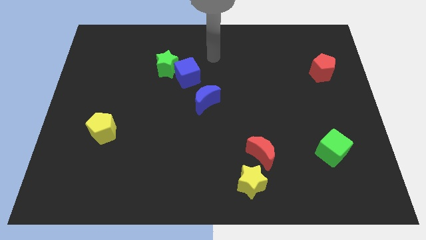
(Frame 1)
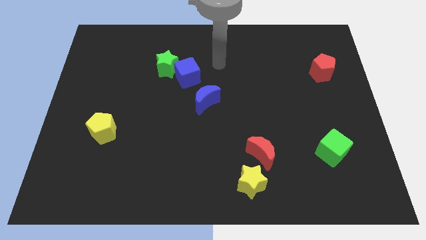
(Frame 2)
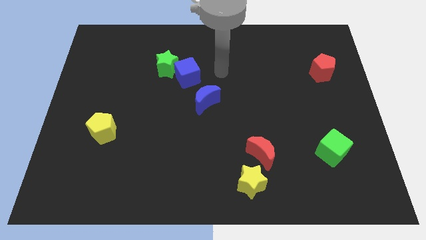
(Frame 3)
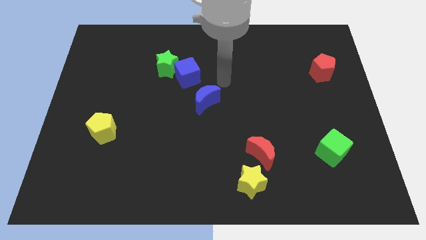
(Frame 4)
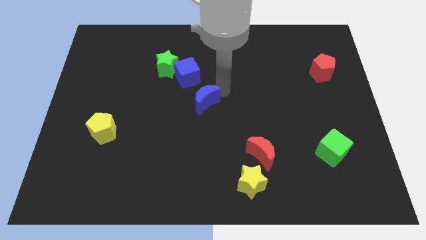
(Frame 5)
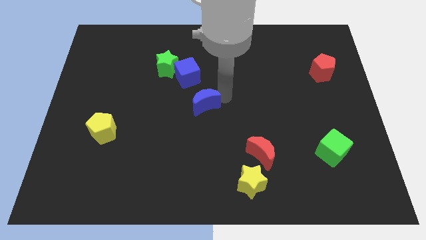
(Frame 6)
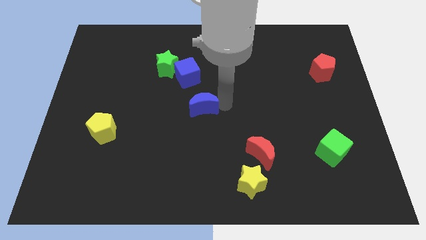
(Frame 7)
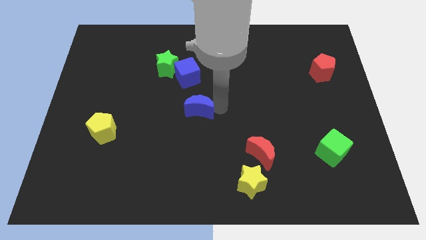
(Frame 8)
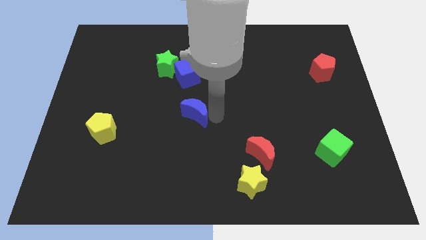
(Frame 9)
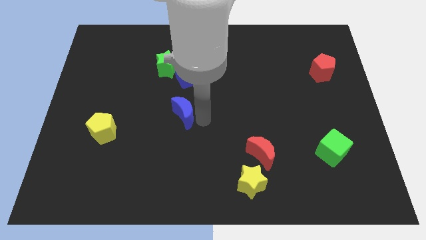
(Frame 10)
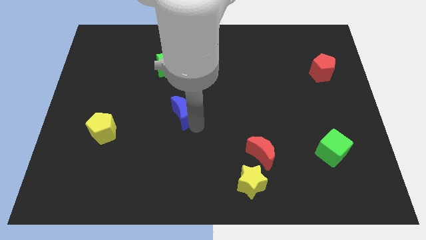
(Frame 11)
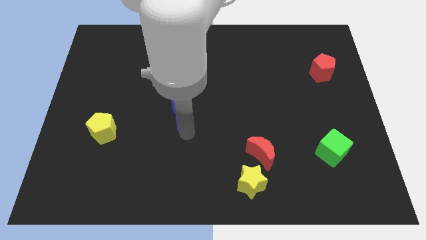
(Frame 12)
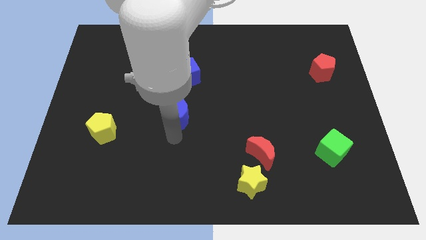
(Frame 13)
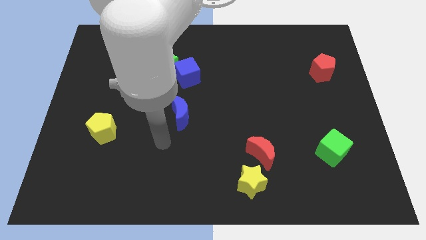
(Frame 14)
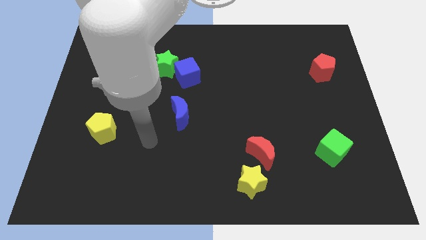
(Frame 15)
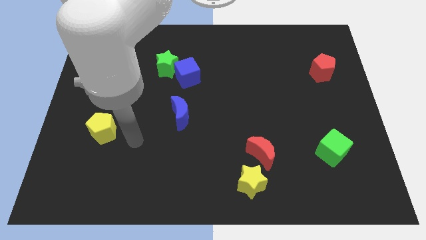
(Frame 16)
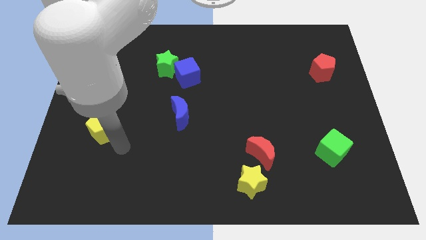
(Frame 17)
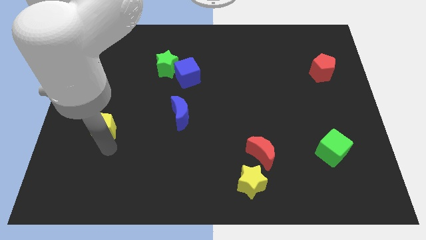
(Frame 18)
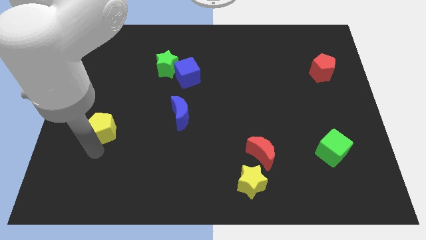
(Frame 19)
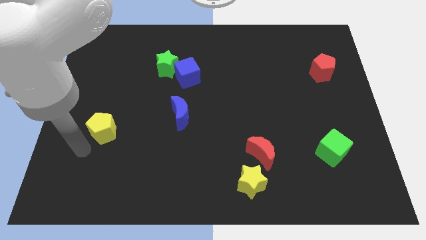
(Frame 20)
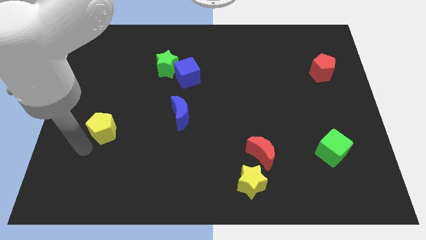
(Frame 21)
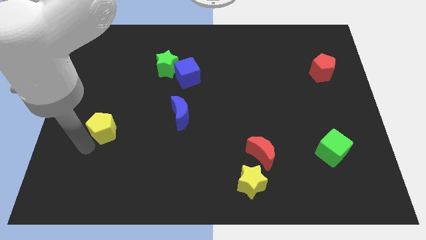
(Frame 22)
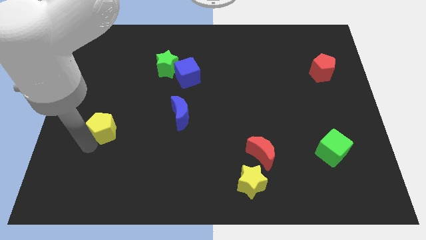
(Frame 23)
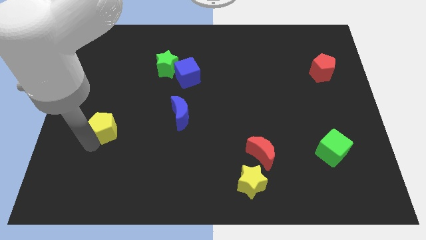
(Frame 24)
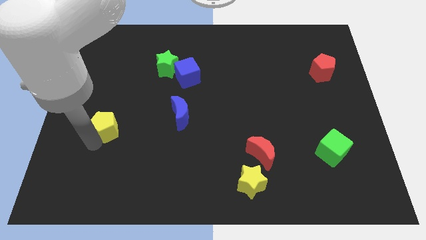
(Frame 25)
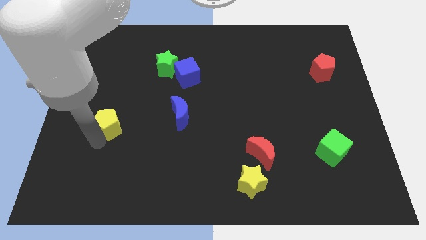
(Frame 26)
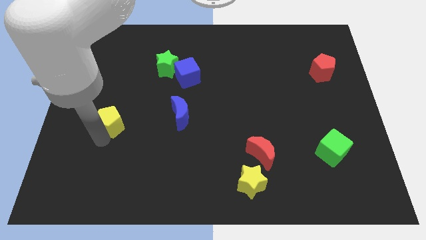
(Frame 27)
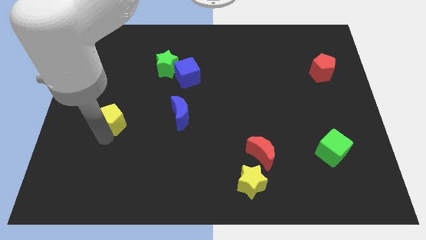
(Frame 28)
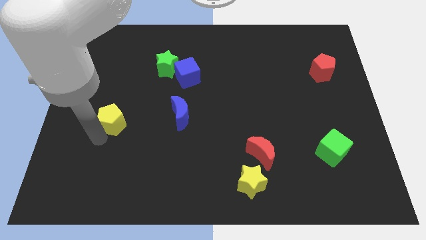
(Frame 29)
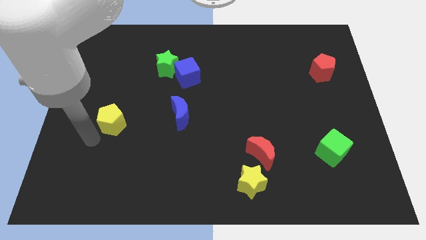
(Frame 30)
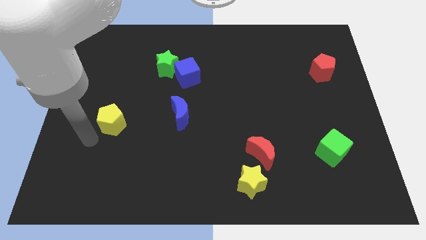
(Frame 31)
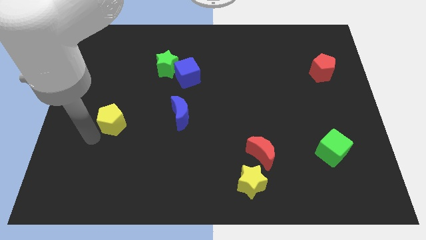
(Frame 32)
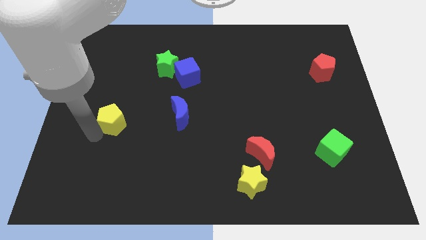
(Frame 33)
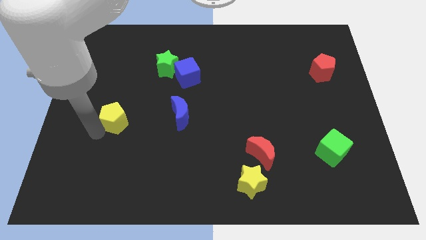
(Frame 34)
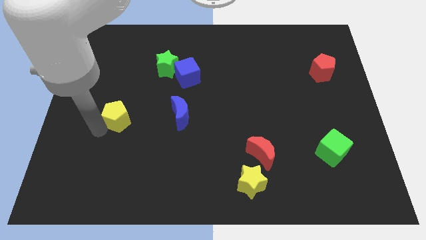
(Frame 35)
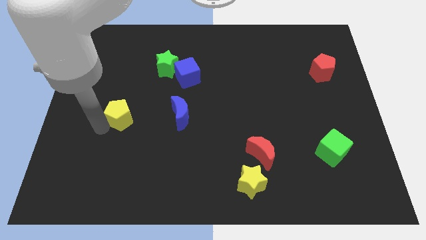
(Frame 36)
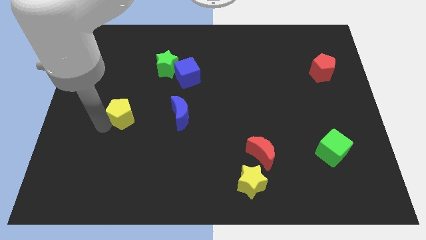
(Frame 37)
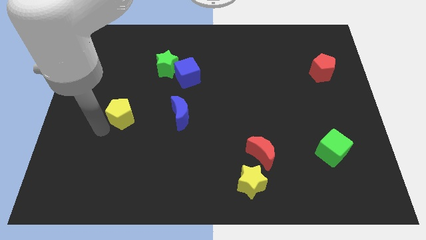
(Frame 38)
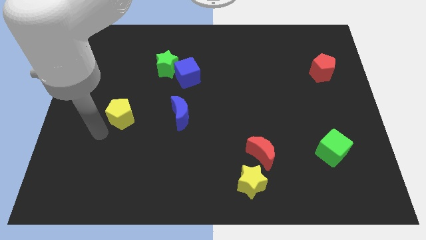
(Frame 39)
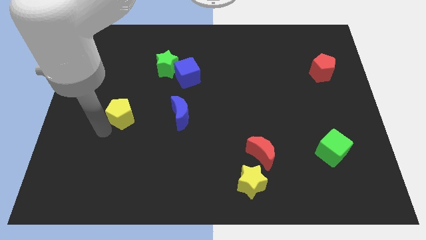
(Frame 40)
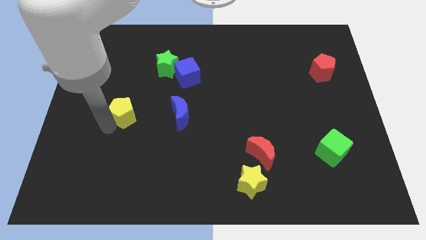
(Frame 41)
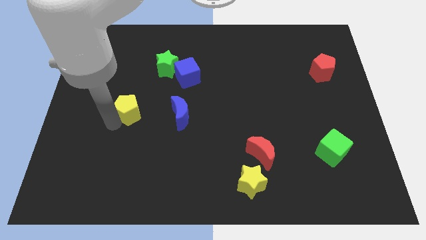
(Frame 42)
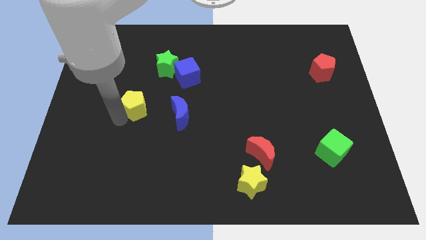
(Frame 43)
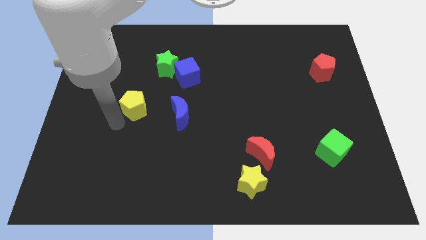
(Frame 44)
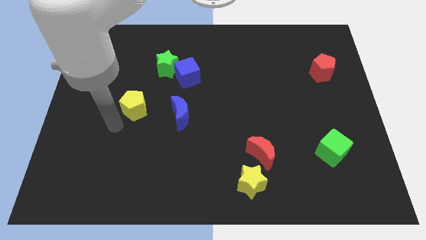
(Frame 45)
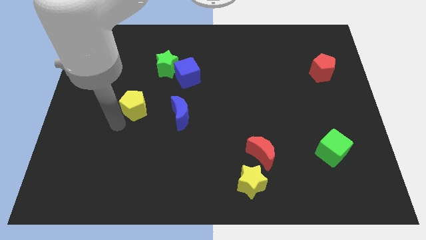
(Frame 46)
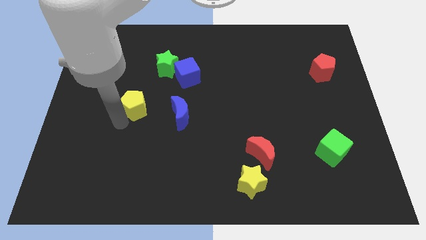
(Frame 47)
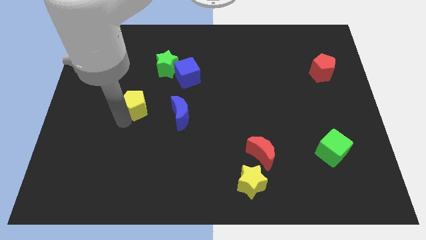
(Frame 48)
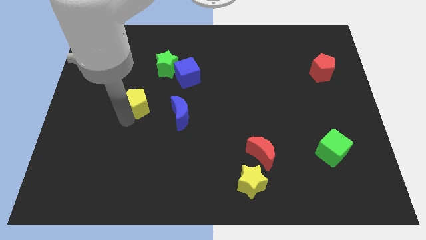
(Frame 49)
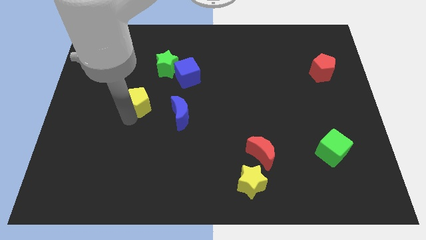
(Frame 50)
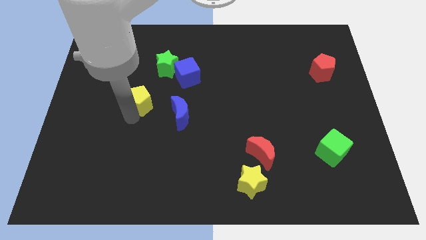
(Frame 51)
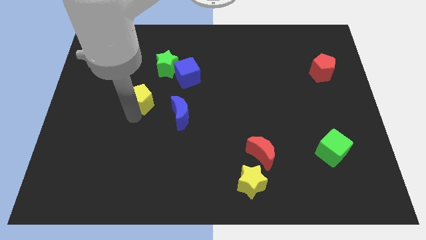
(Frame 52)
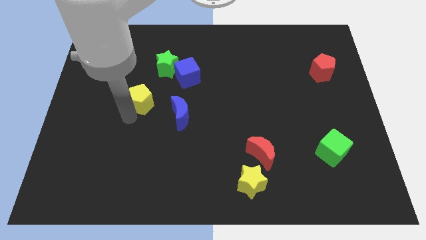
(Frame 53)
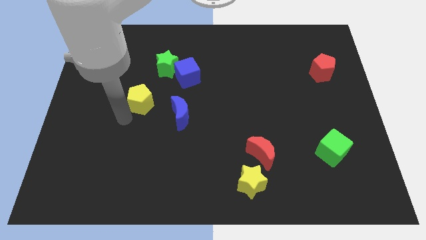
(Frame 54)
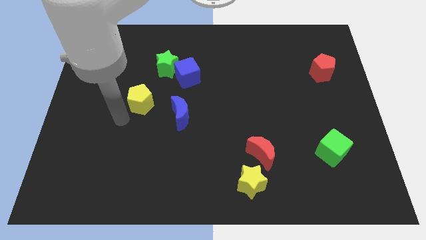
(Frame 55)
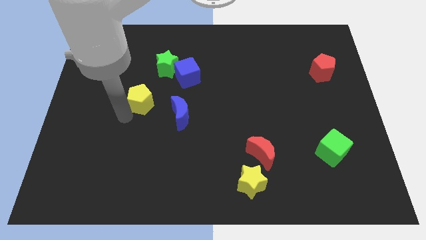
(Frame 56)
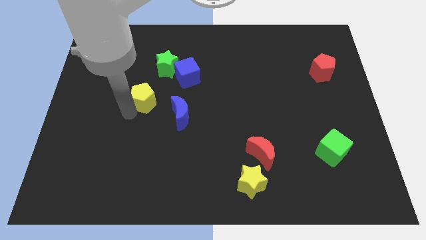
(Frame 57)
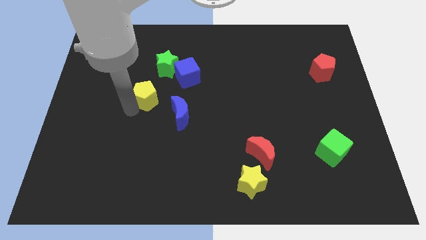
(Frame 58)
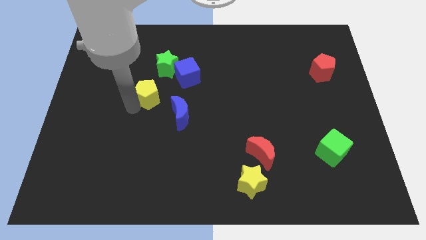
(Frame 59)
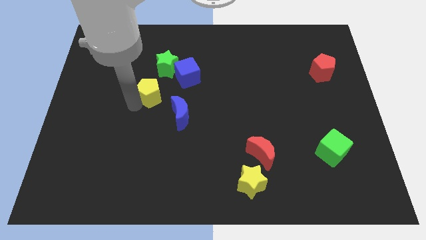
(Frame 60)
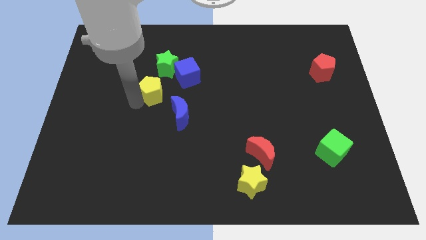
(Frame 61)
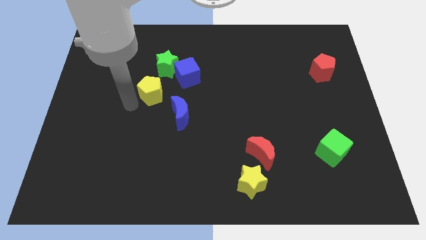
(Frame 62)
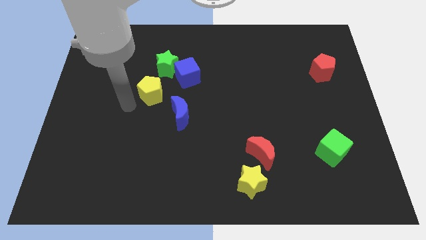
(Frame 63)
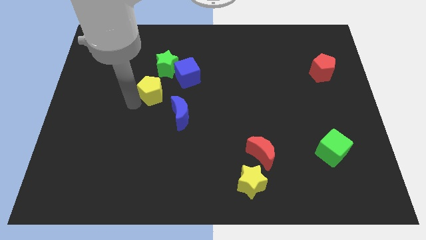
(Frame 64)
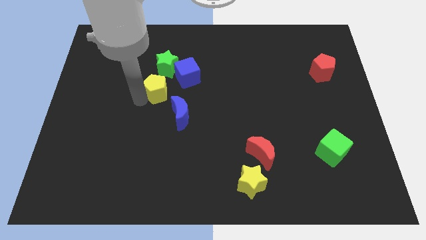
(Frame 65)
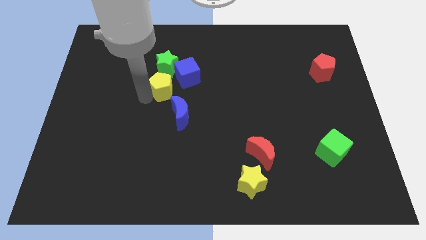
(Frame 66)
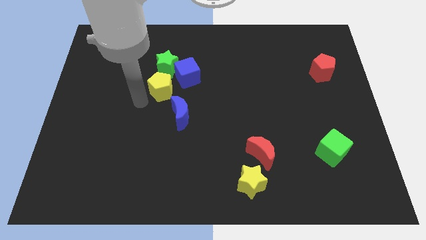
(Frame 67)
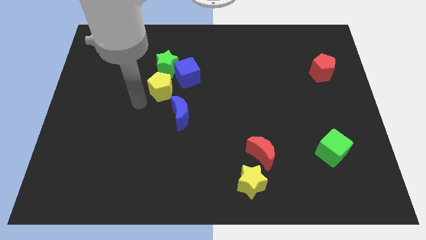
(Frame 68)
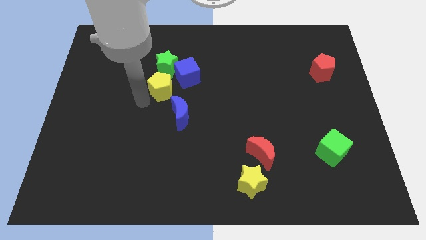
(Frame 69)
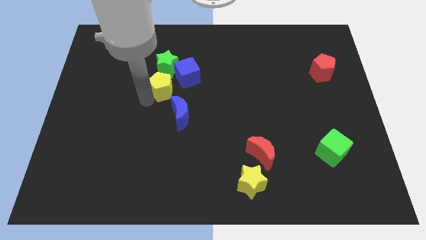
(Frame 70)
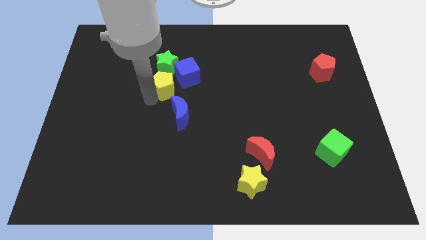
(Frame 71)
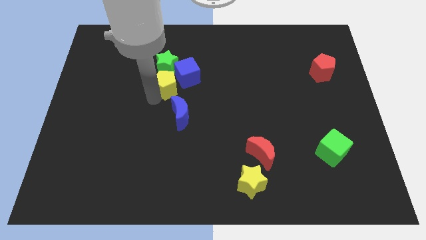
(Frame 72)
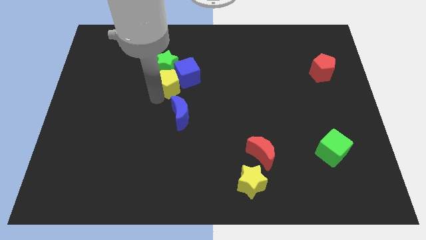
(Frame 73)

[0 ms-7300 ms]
push the yellow pentagon next to the blue cube
